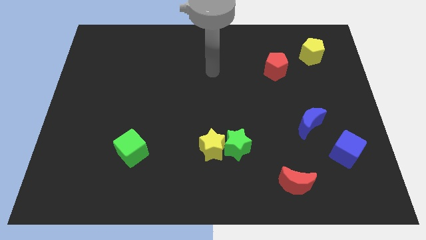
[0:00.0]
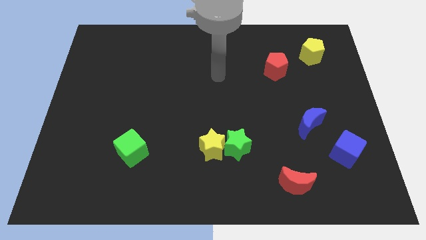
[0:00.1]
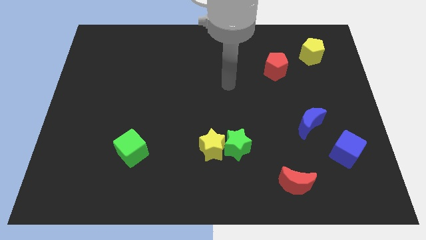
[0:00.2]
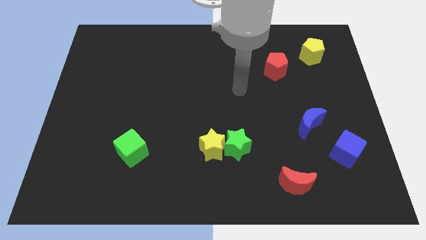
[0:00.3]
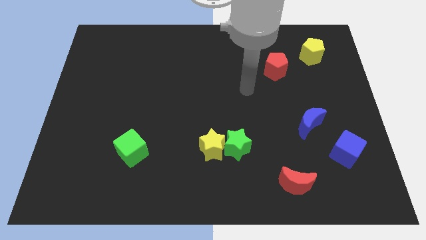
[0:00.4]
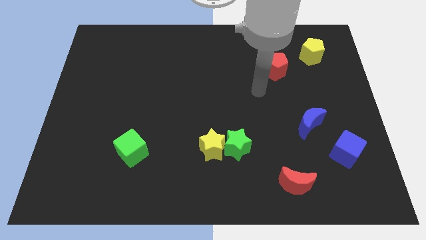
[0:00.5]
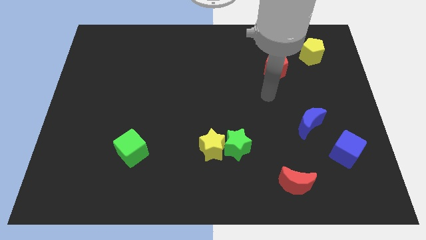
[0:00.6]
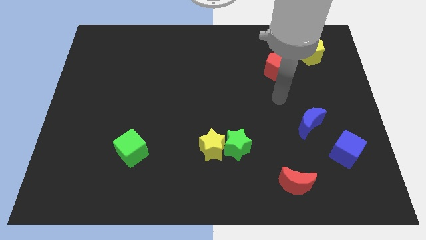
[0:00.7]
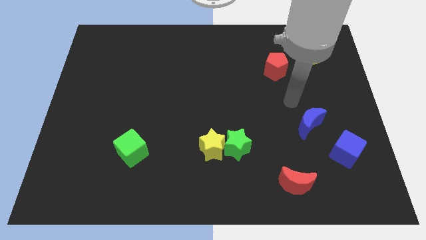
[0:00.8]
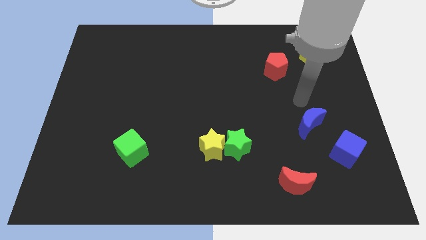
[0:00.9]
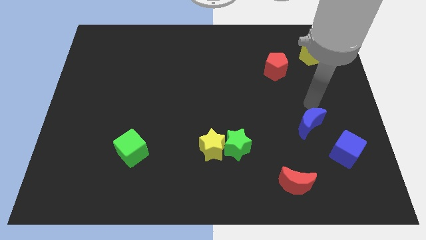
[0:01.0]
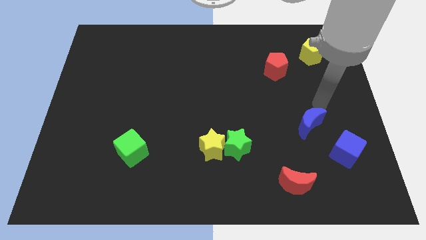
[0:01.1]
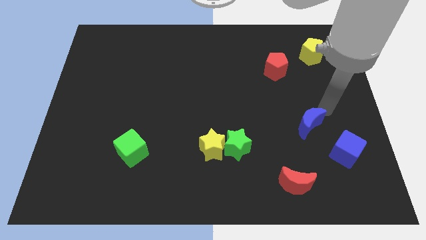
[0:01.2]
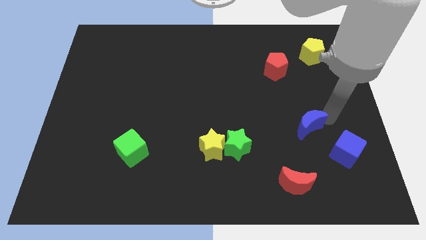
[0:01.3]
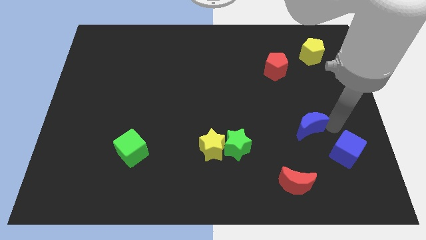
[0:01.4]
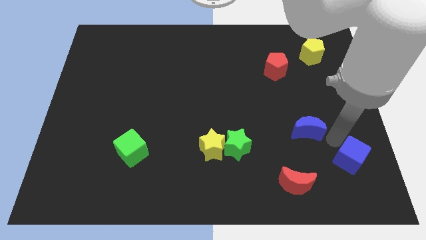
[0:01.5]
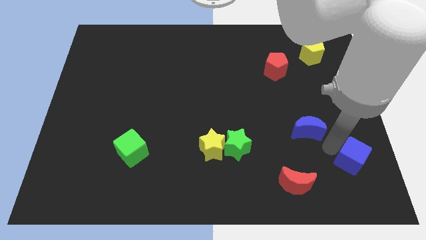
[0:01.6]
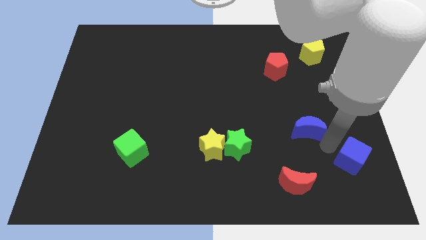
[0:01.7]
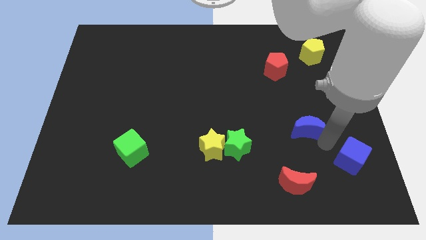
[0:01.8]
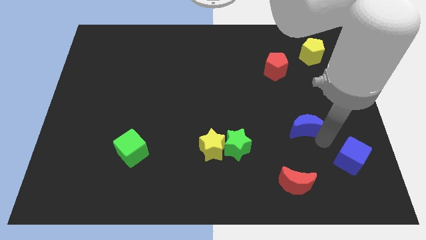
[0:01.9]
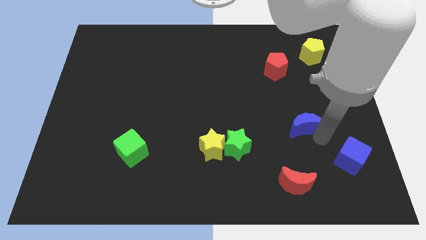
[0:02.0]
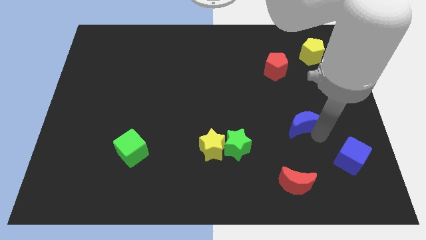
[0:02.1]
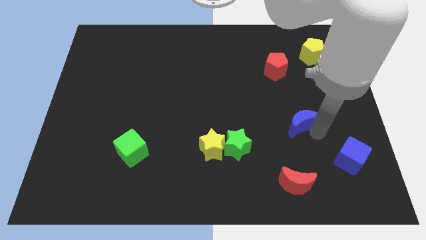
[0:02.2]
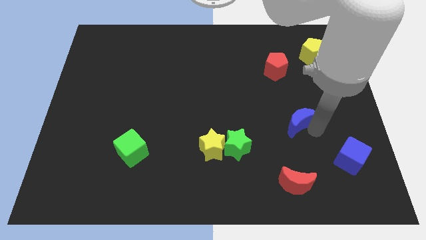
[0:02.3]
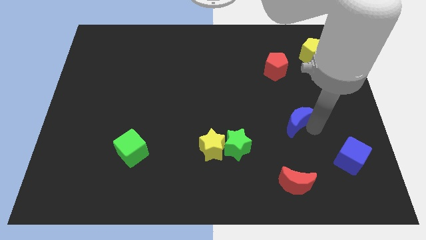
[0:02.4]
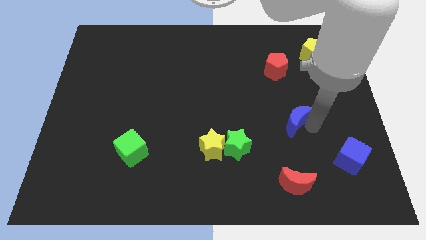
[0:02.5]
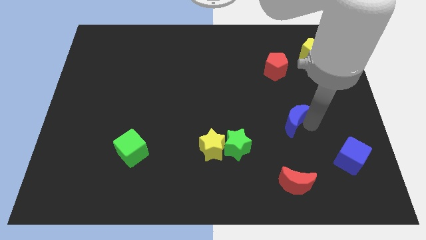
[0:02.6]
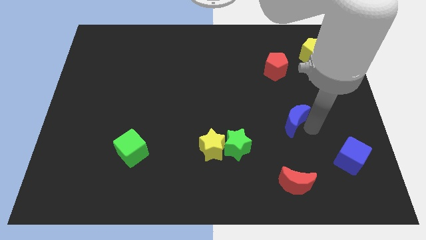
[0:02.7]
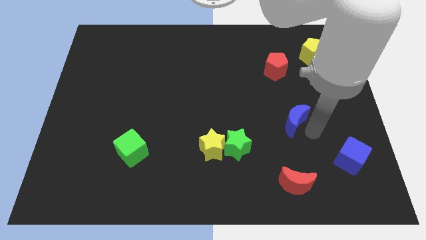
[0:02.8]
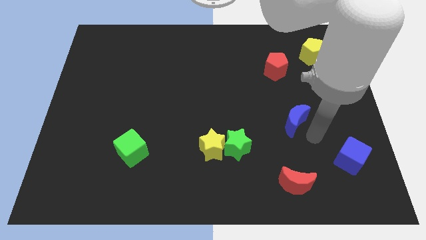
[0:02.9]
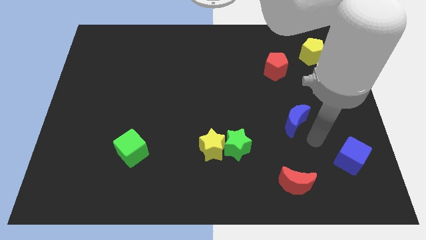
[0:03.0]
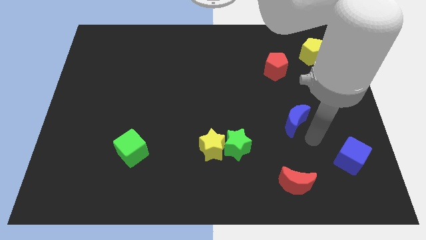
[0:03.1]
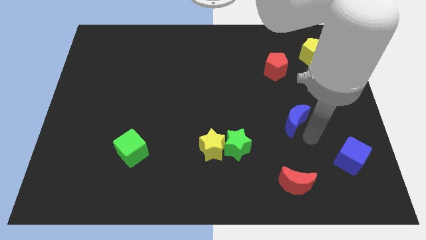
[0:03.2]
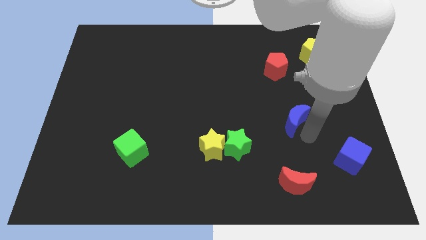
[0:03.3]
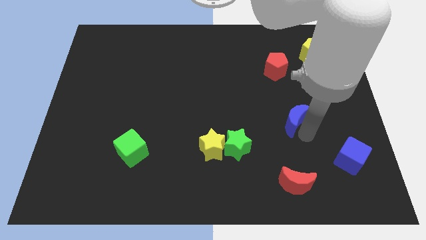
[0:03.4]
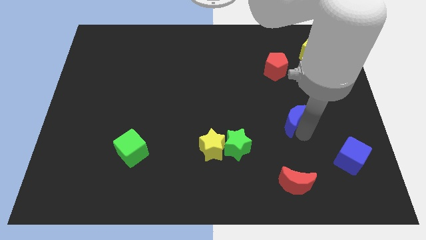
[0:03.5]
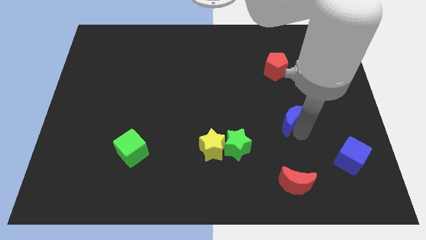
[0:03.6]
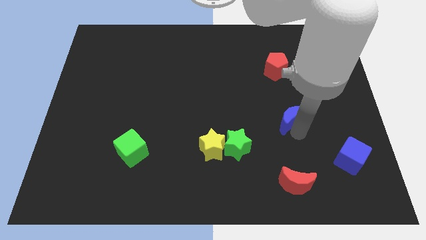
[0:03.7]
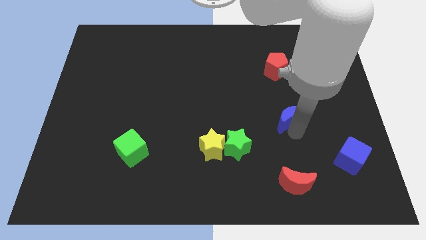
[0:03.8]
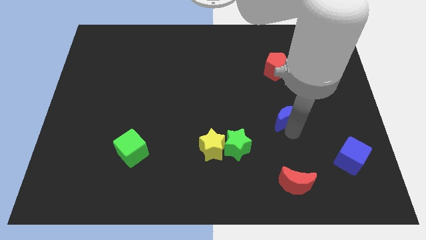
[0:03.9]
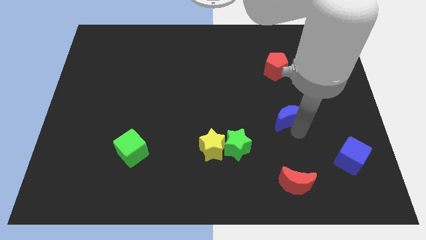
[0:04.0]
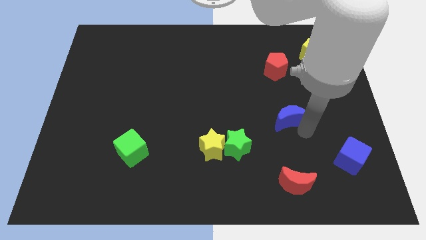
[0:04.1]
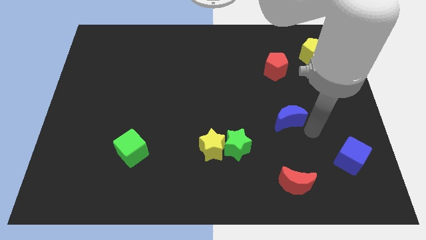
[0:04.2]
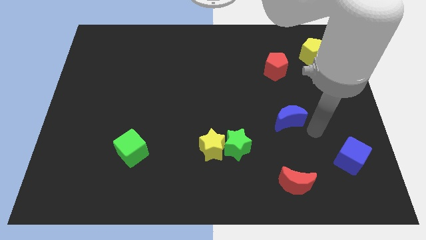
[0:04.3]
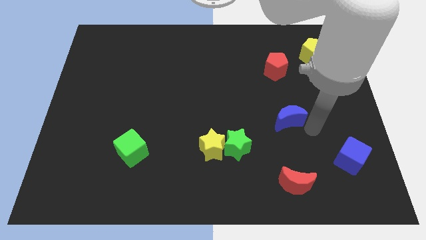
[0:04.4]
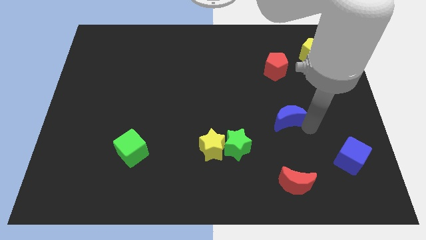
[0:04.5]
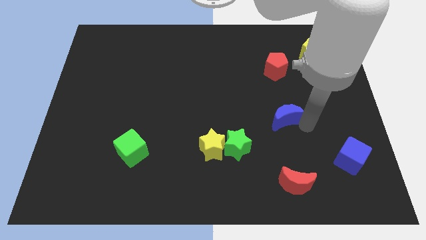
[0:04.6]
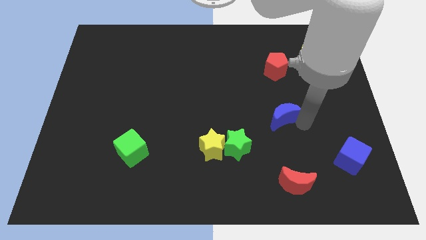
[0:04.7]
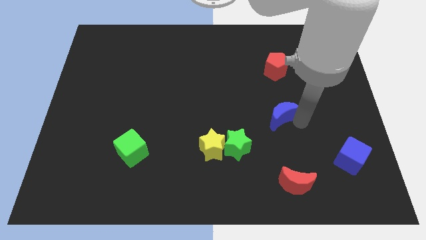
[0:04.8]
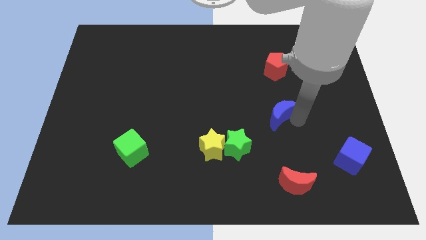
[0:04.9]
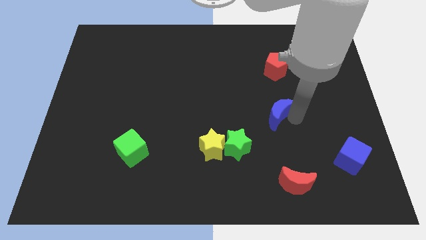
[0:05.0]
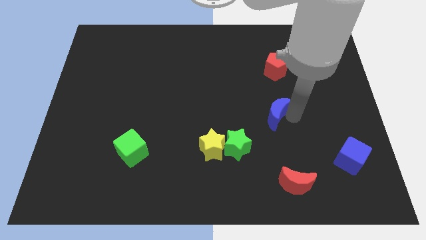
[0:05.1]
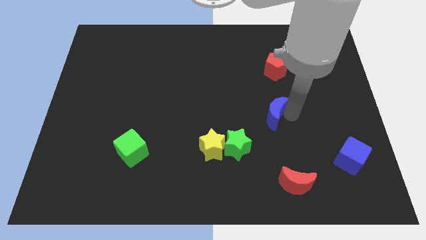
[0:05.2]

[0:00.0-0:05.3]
slide the blue moon up and then to the left a little bit

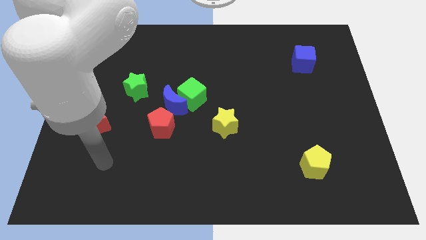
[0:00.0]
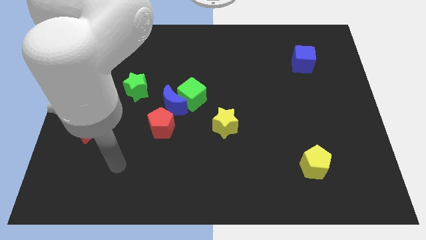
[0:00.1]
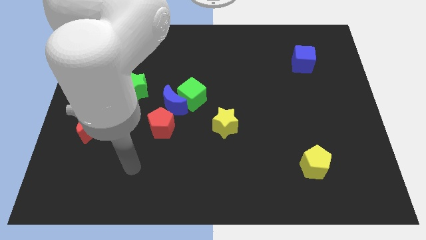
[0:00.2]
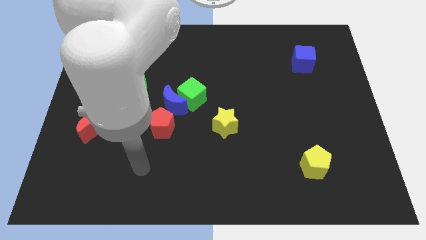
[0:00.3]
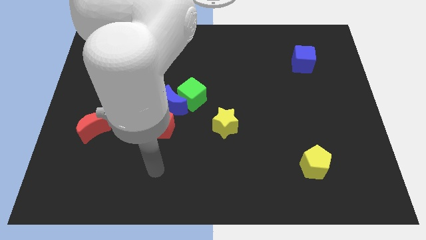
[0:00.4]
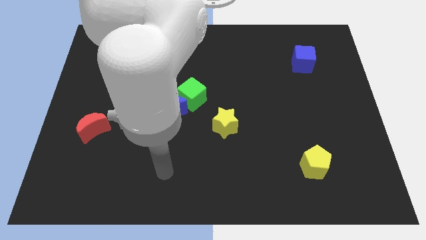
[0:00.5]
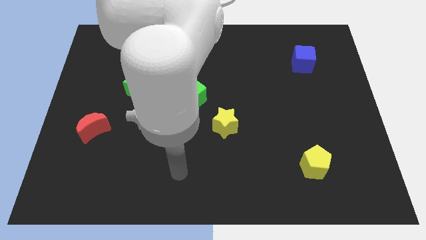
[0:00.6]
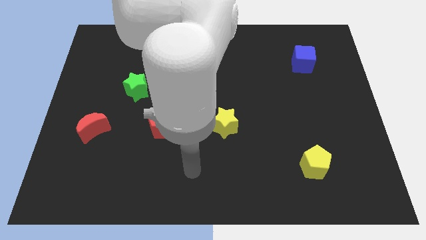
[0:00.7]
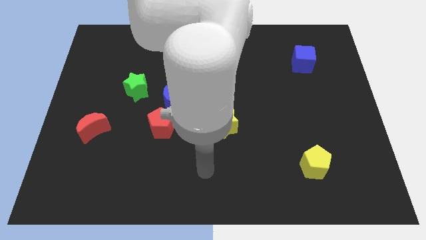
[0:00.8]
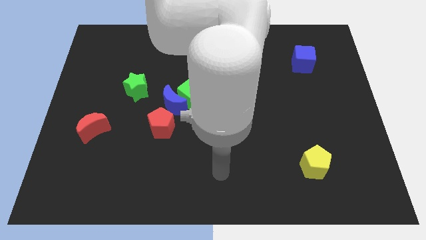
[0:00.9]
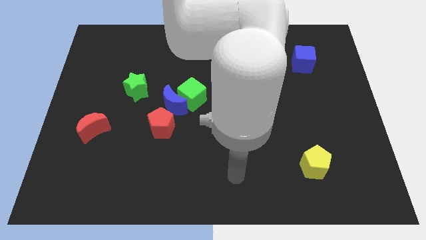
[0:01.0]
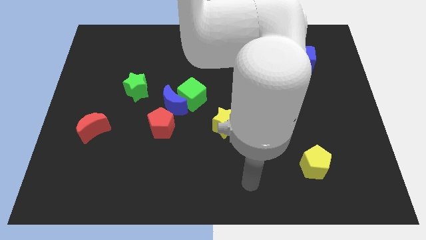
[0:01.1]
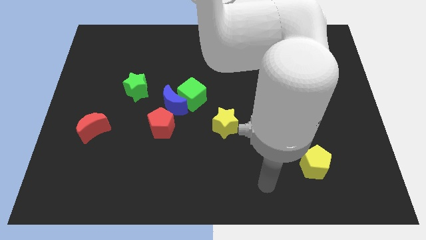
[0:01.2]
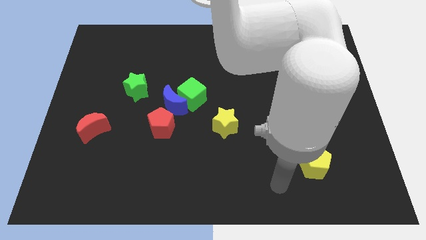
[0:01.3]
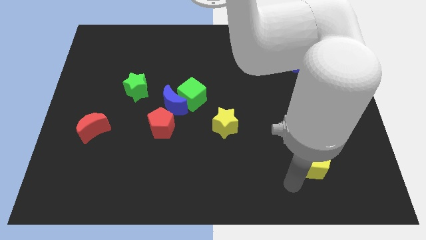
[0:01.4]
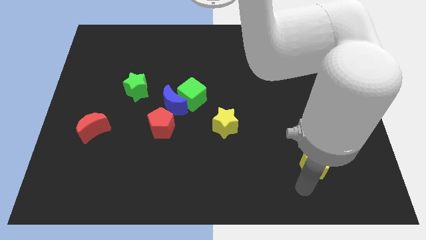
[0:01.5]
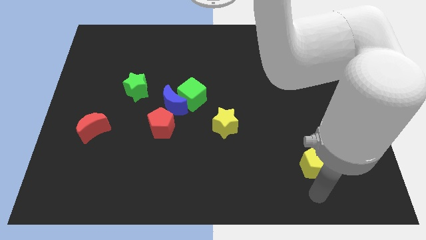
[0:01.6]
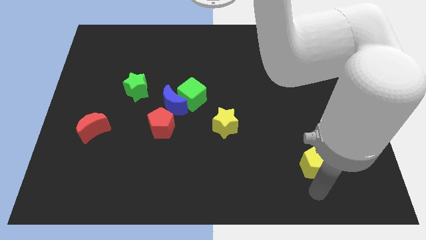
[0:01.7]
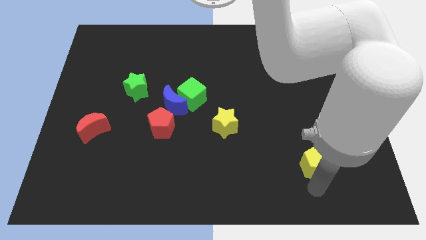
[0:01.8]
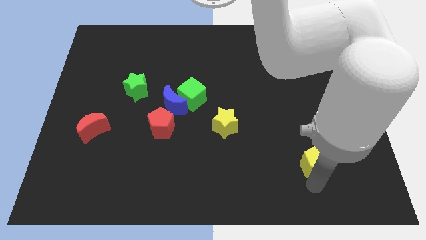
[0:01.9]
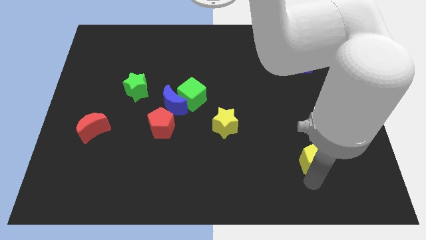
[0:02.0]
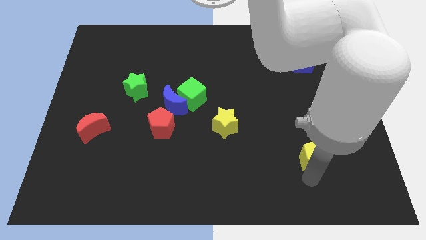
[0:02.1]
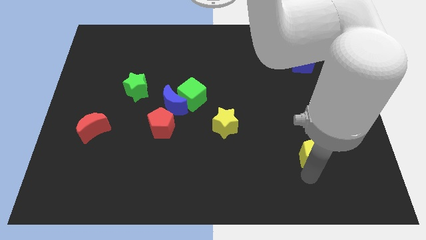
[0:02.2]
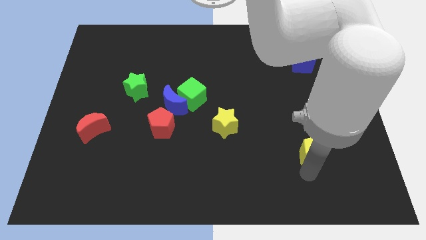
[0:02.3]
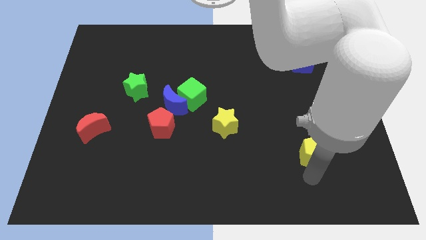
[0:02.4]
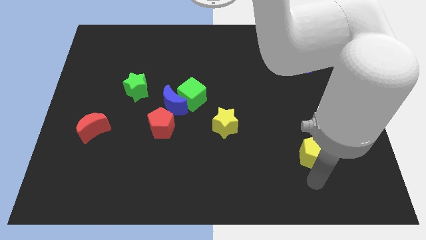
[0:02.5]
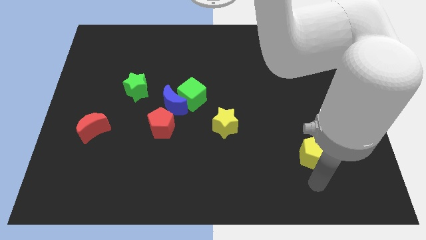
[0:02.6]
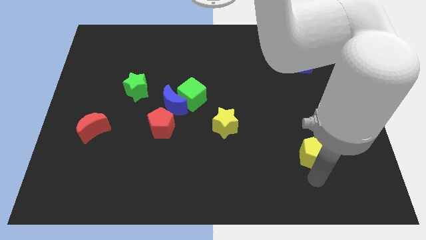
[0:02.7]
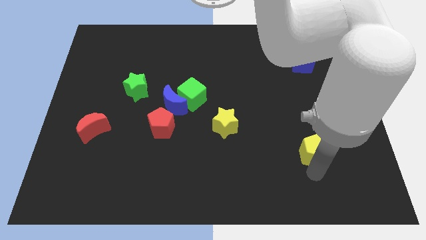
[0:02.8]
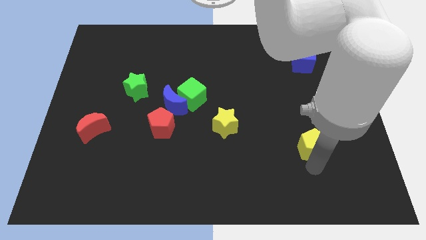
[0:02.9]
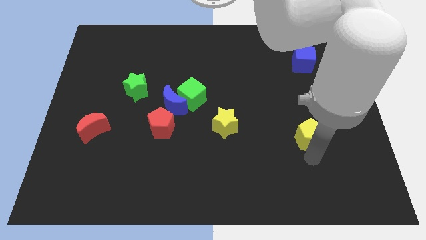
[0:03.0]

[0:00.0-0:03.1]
push the yellow pentagon up slightly
